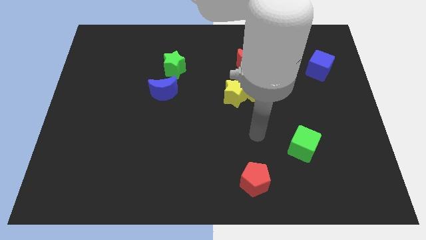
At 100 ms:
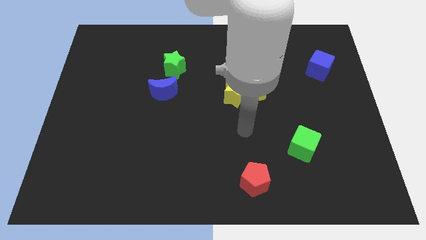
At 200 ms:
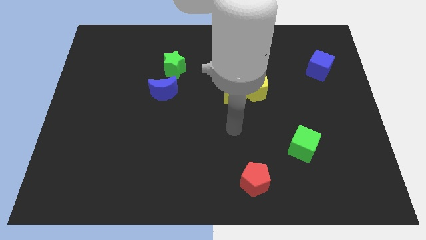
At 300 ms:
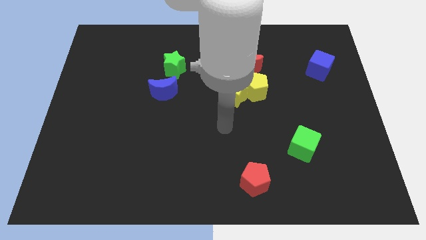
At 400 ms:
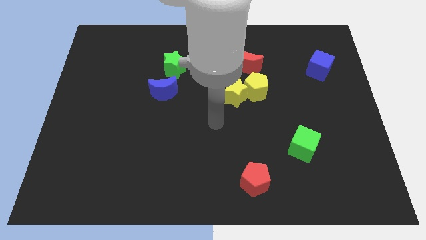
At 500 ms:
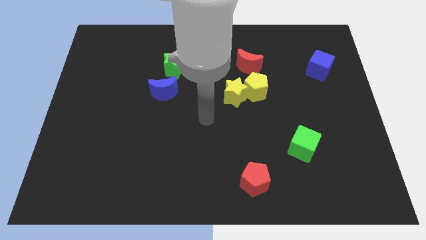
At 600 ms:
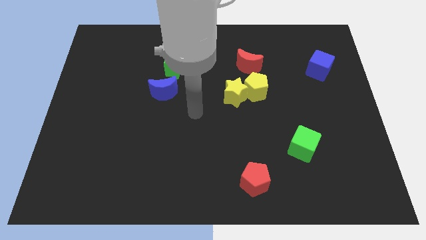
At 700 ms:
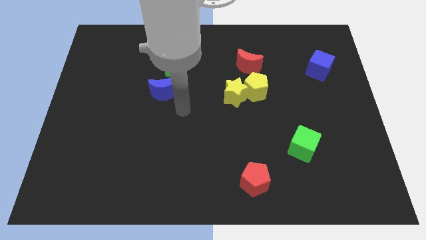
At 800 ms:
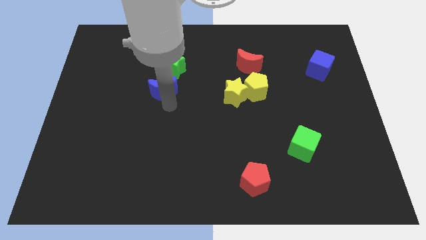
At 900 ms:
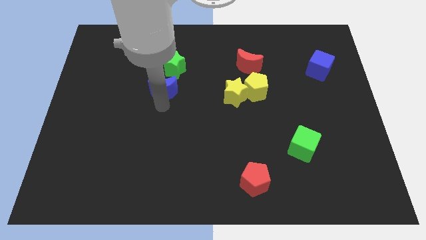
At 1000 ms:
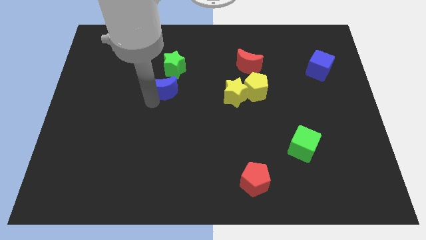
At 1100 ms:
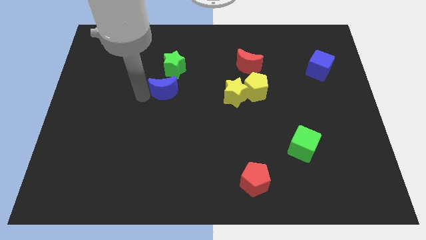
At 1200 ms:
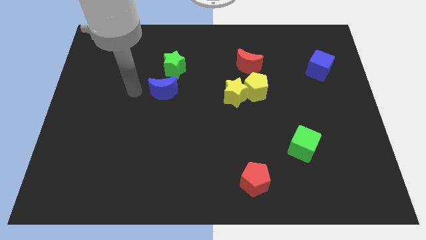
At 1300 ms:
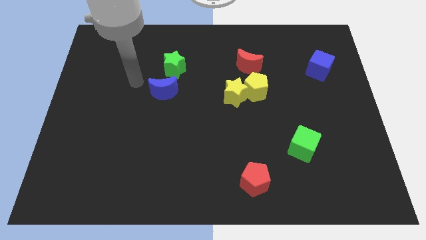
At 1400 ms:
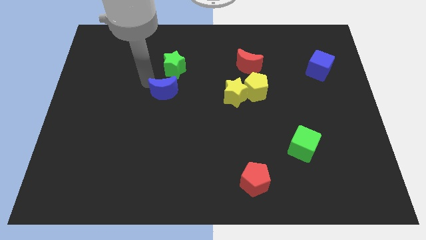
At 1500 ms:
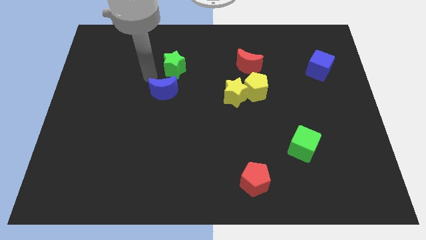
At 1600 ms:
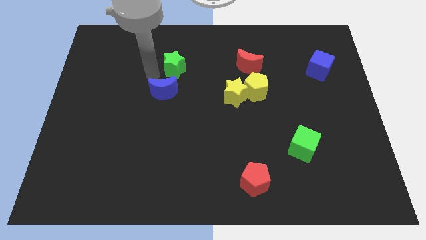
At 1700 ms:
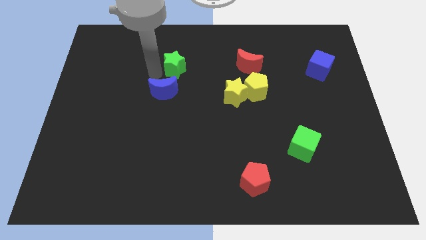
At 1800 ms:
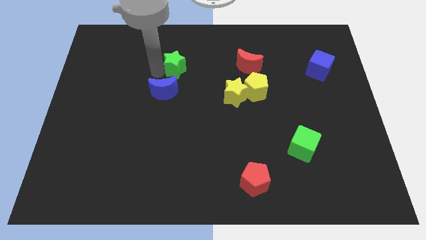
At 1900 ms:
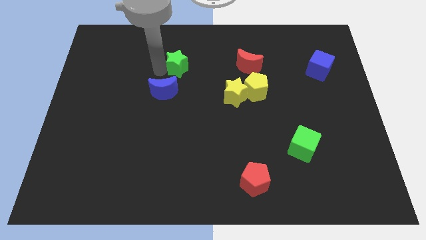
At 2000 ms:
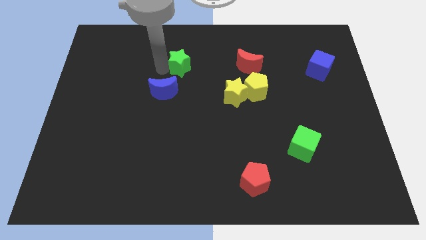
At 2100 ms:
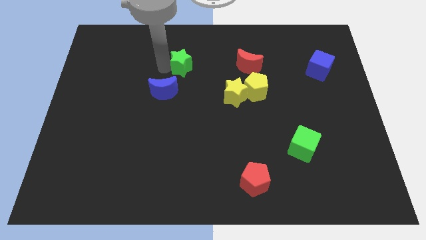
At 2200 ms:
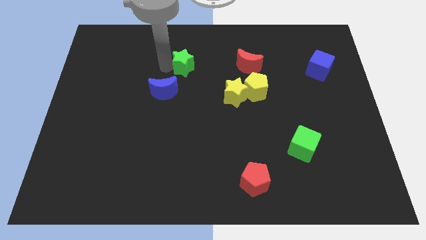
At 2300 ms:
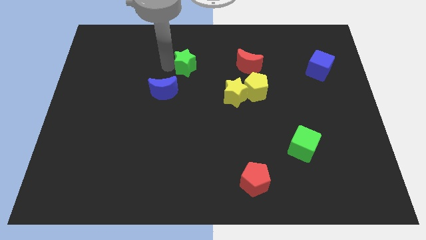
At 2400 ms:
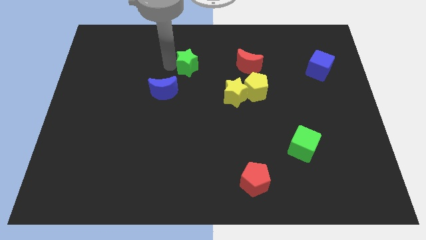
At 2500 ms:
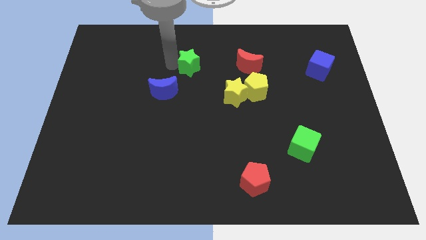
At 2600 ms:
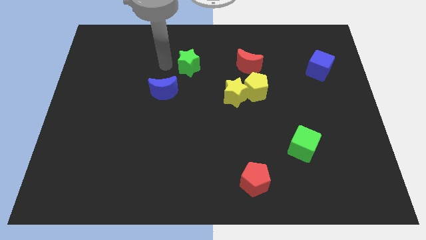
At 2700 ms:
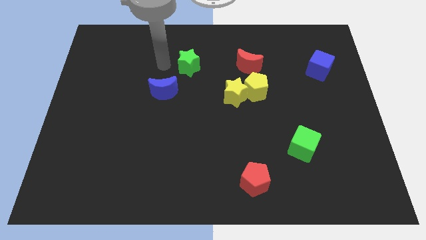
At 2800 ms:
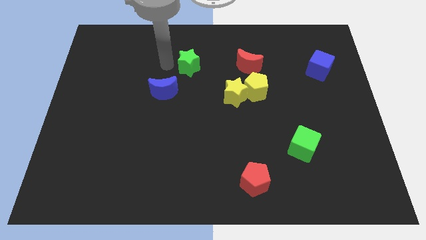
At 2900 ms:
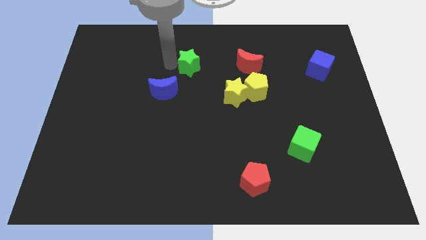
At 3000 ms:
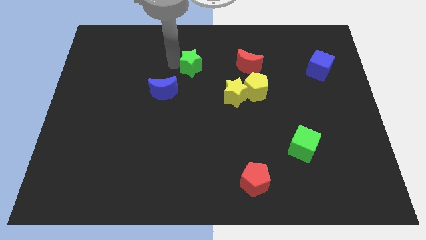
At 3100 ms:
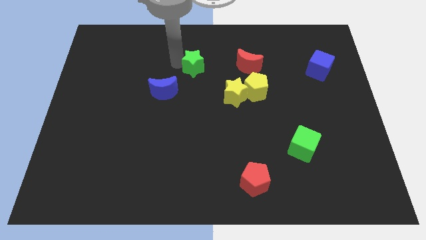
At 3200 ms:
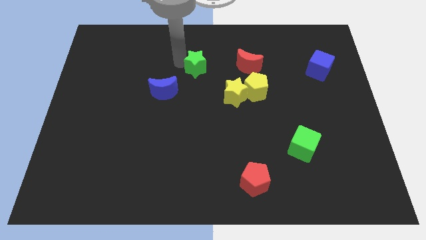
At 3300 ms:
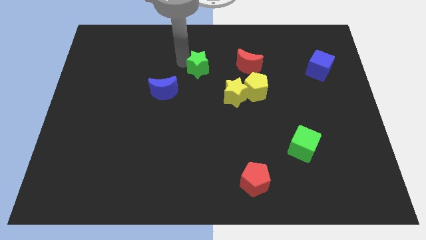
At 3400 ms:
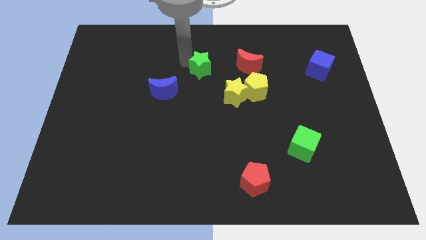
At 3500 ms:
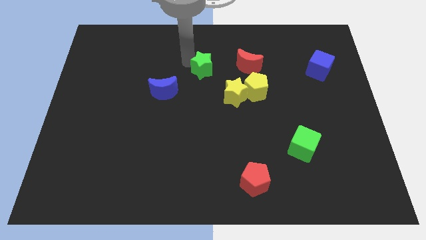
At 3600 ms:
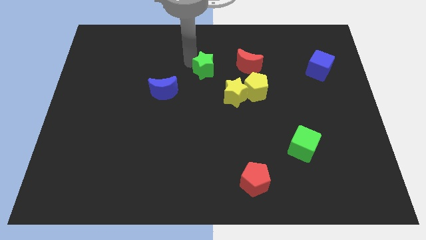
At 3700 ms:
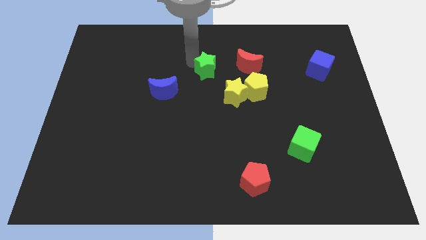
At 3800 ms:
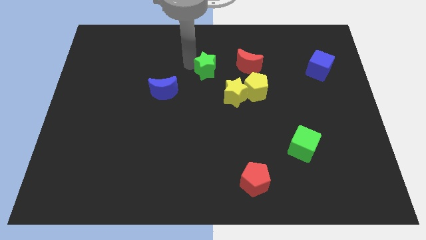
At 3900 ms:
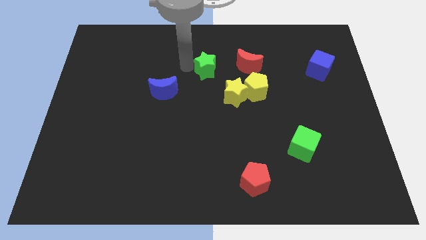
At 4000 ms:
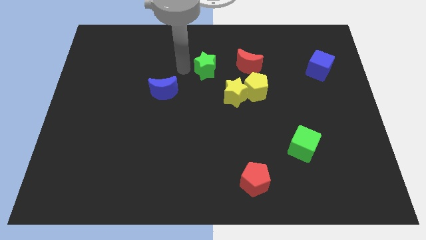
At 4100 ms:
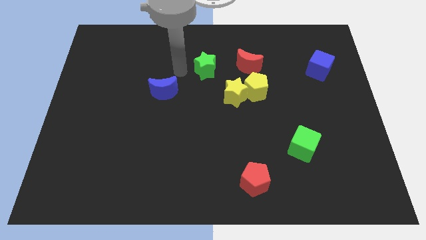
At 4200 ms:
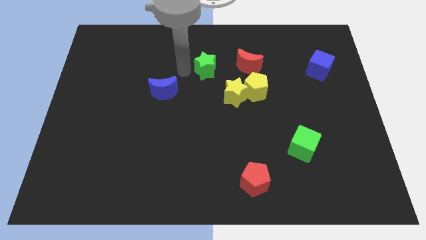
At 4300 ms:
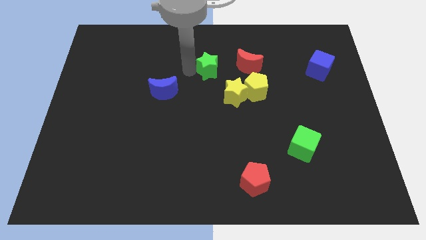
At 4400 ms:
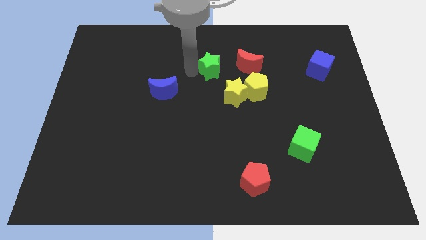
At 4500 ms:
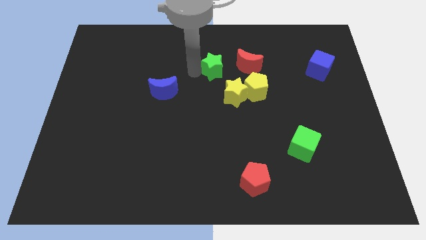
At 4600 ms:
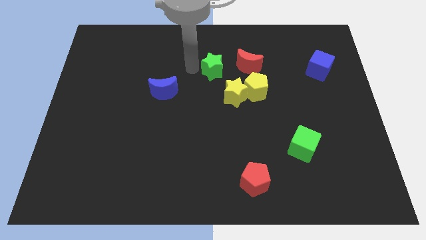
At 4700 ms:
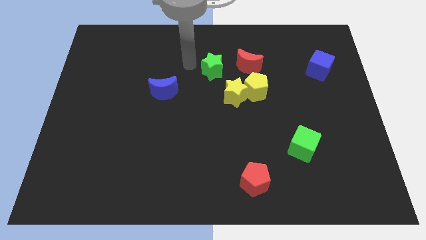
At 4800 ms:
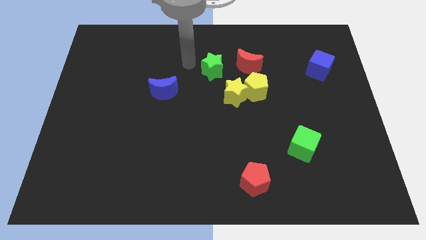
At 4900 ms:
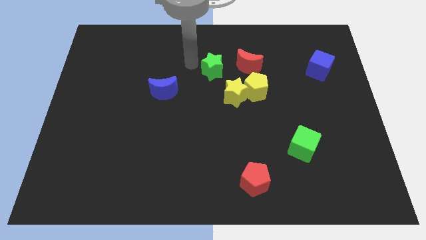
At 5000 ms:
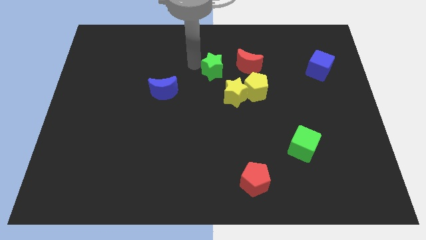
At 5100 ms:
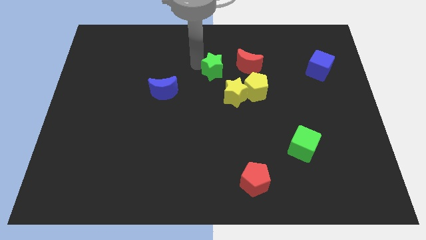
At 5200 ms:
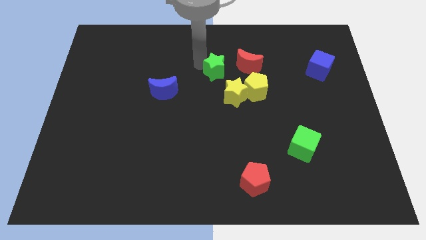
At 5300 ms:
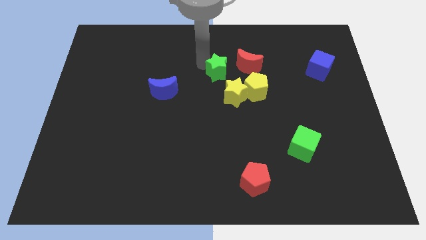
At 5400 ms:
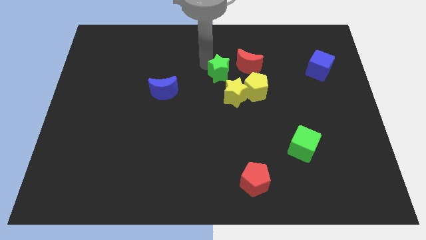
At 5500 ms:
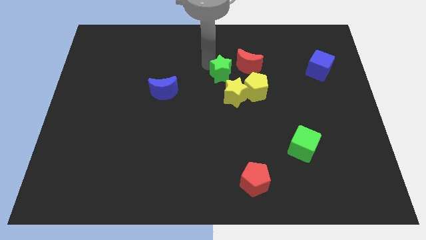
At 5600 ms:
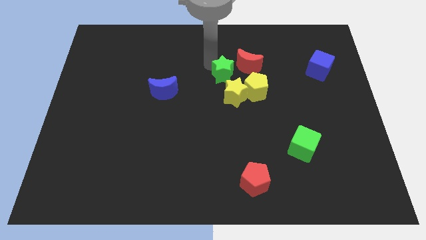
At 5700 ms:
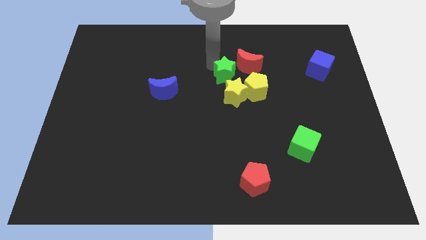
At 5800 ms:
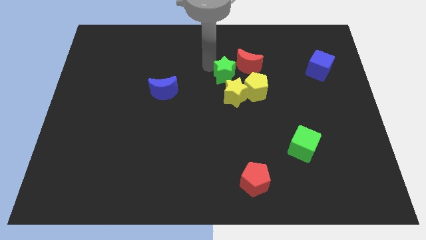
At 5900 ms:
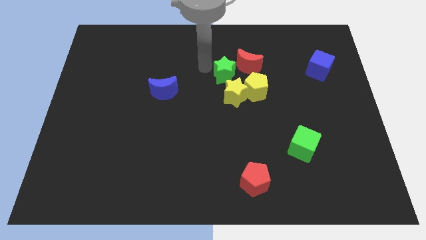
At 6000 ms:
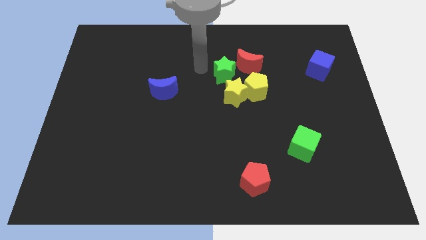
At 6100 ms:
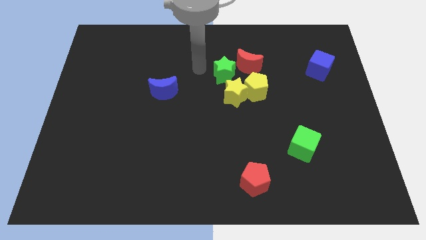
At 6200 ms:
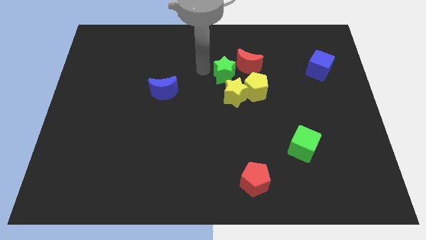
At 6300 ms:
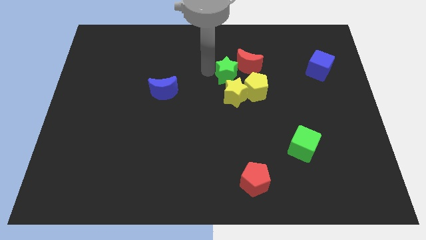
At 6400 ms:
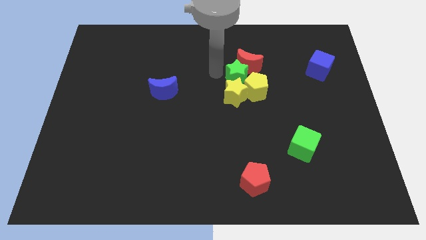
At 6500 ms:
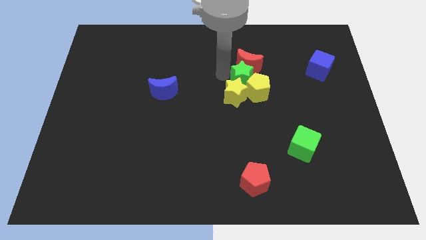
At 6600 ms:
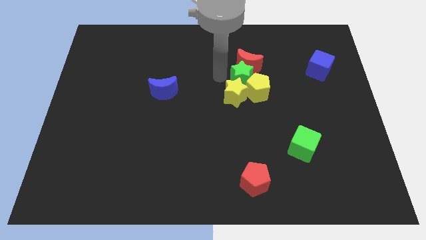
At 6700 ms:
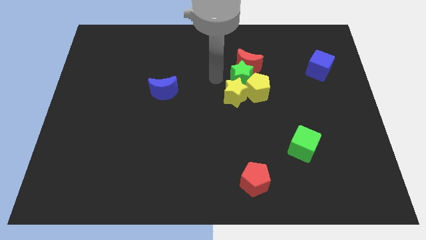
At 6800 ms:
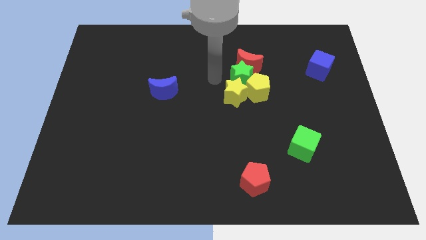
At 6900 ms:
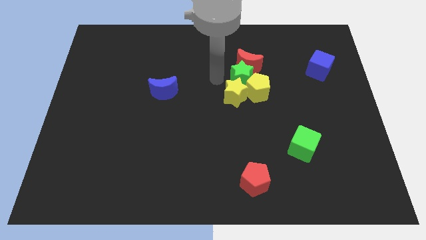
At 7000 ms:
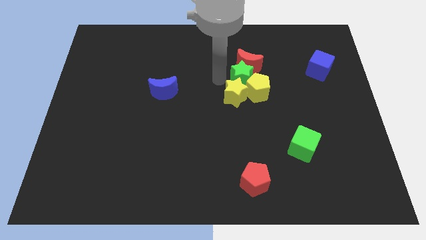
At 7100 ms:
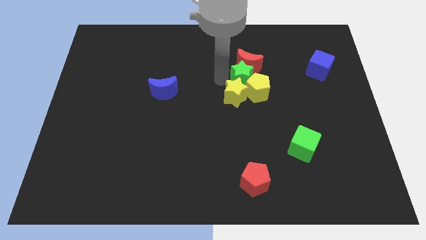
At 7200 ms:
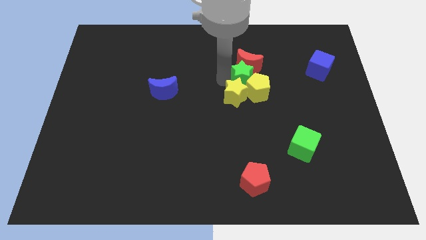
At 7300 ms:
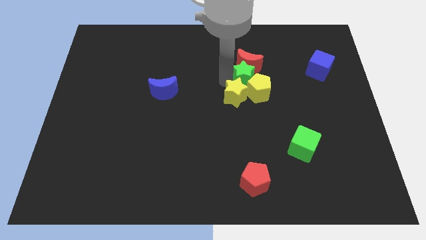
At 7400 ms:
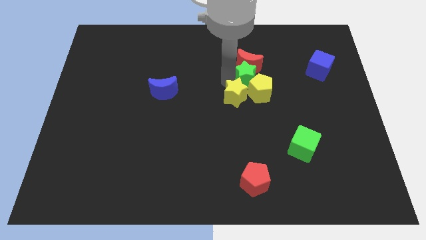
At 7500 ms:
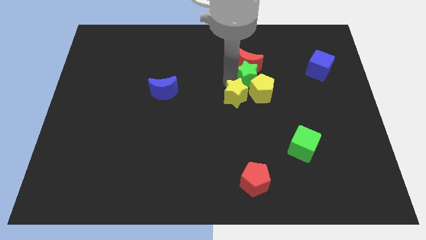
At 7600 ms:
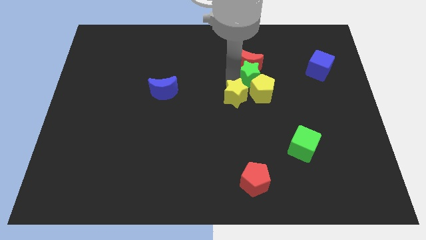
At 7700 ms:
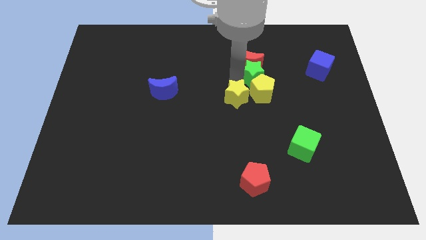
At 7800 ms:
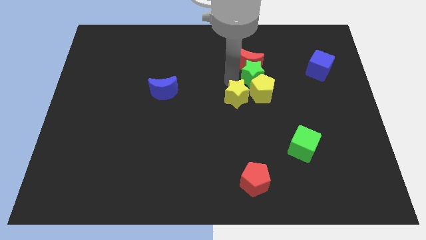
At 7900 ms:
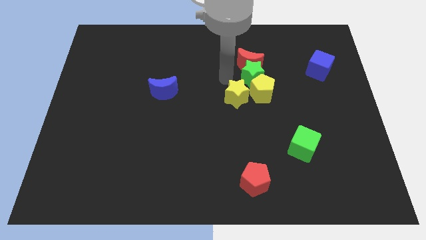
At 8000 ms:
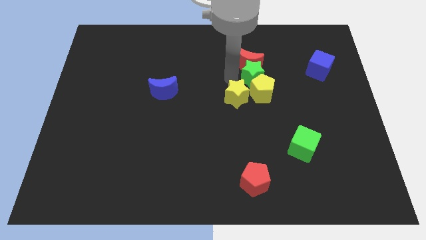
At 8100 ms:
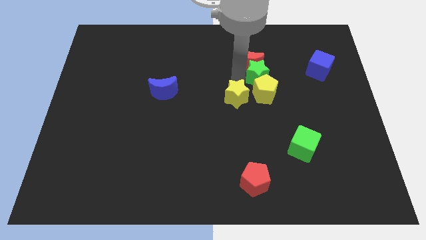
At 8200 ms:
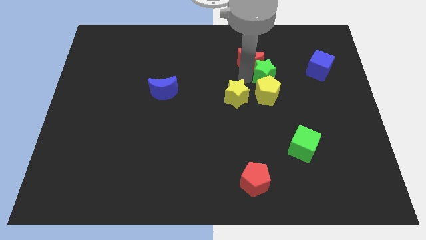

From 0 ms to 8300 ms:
slide the green star to the top right of the yellow pentagon
